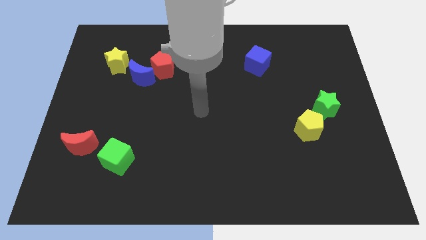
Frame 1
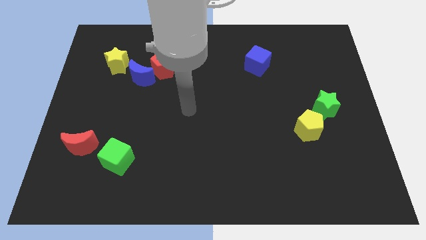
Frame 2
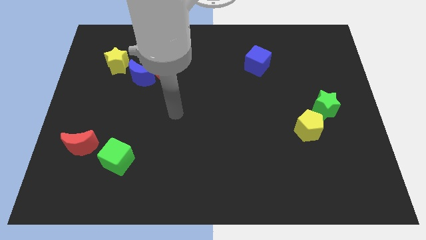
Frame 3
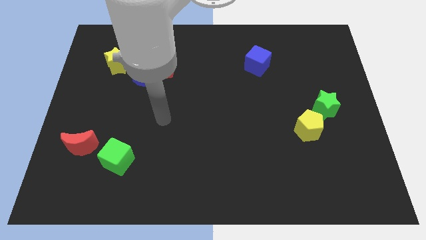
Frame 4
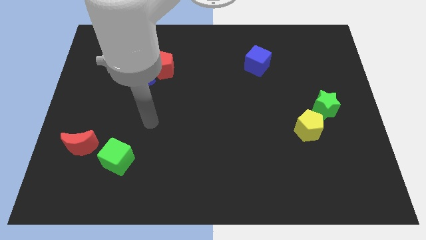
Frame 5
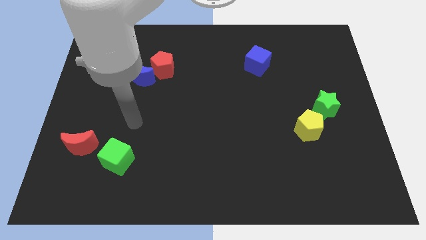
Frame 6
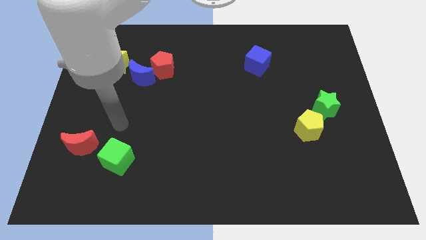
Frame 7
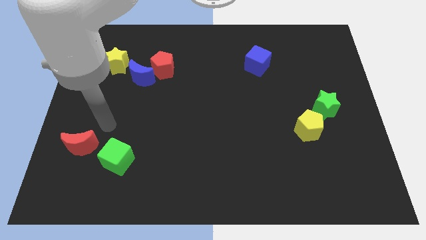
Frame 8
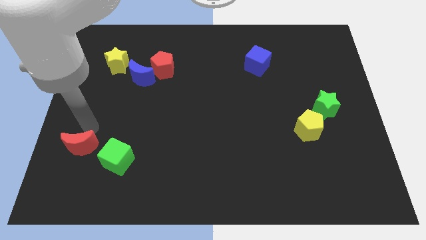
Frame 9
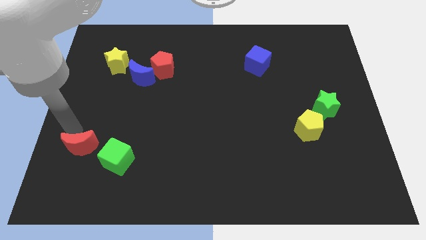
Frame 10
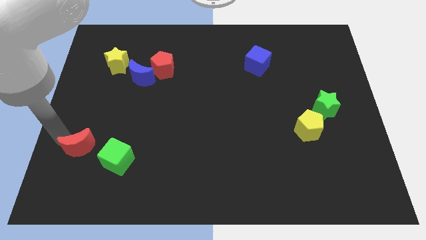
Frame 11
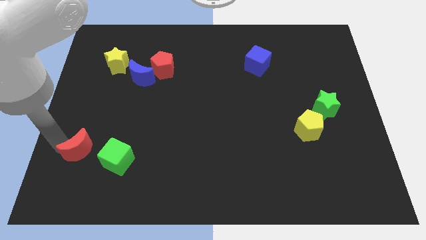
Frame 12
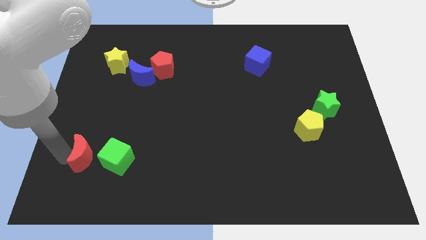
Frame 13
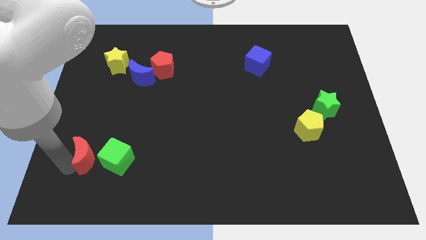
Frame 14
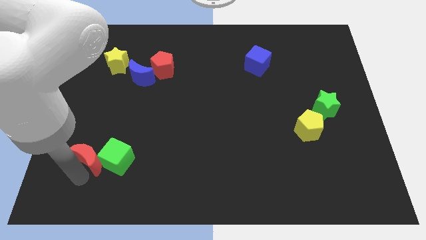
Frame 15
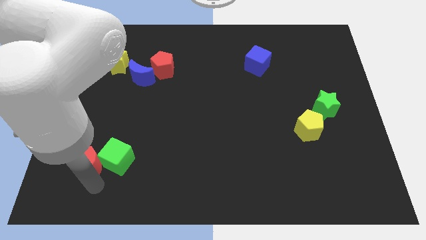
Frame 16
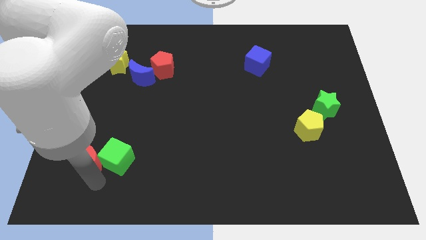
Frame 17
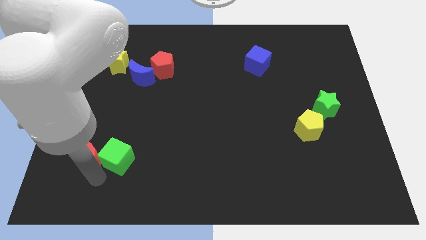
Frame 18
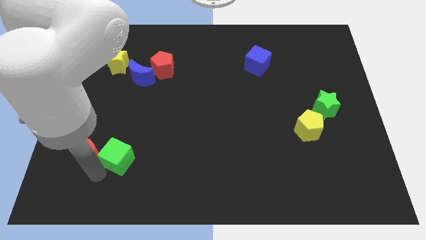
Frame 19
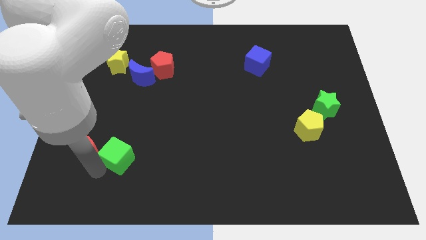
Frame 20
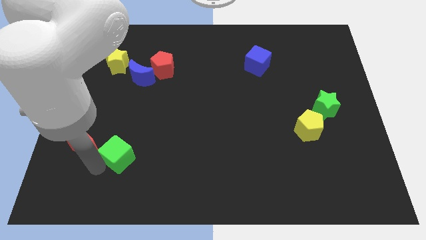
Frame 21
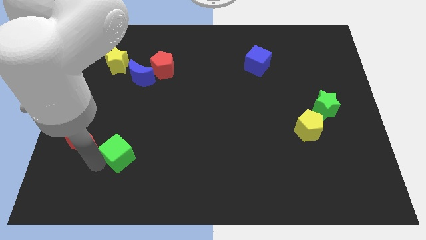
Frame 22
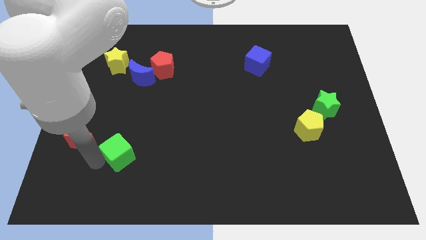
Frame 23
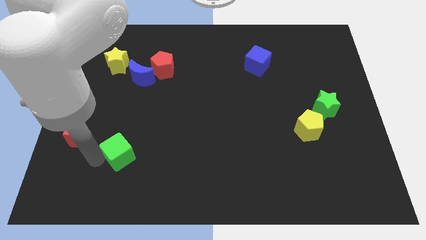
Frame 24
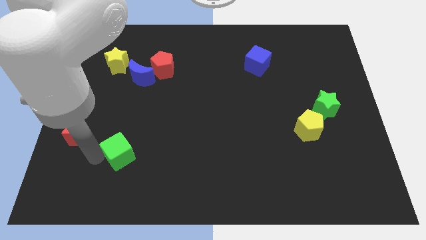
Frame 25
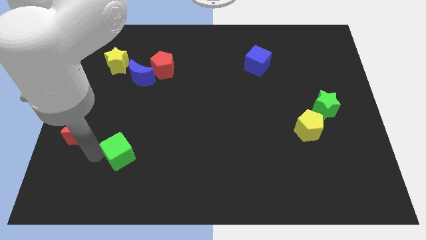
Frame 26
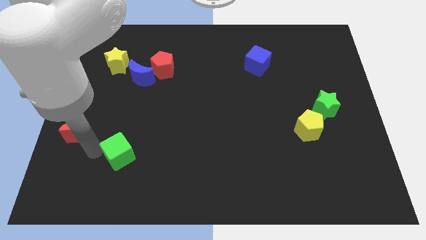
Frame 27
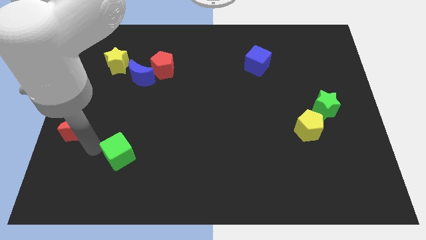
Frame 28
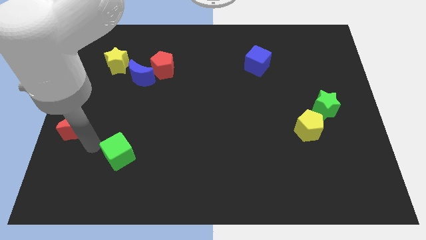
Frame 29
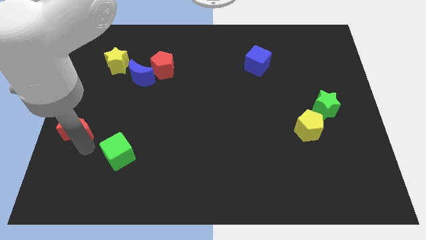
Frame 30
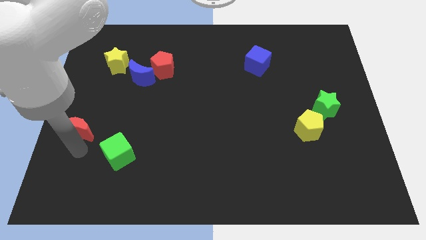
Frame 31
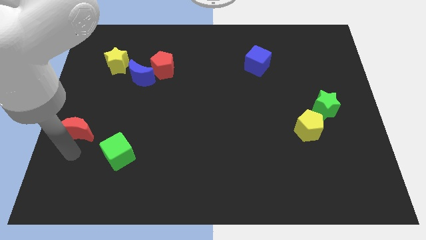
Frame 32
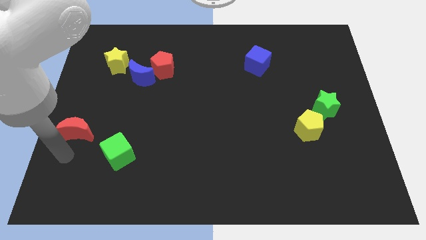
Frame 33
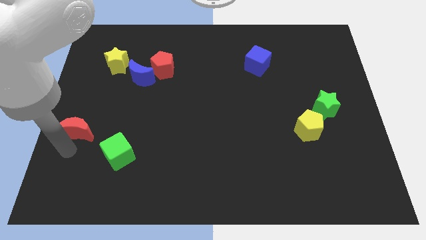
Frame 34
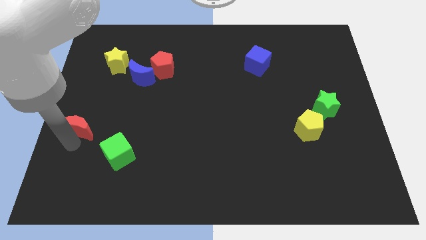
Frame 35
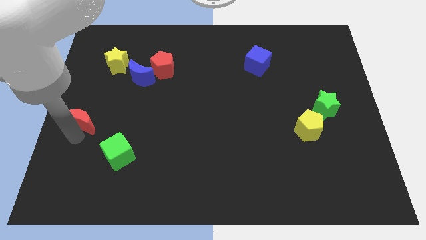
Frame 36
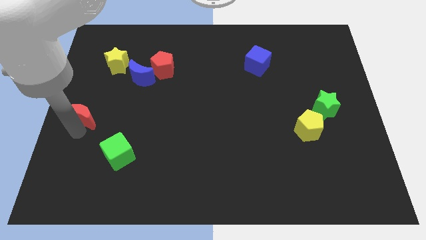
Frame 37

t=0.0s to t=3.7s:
slightly slide the red moon up

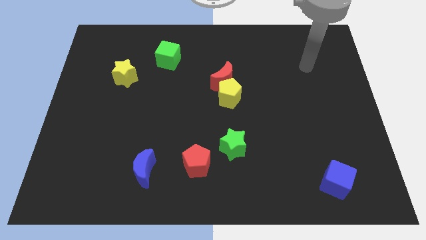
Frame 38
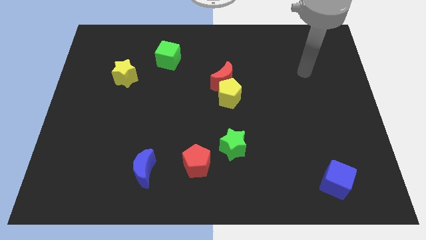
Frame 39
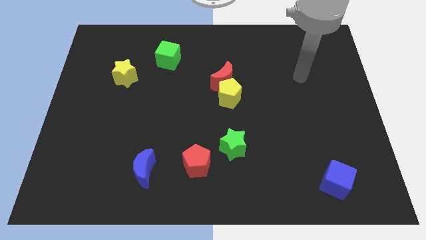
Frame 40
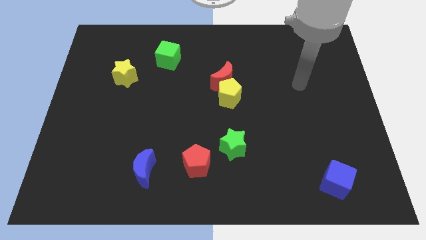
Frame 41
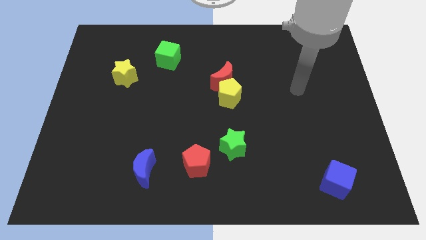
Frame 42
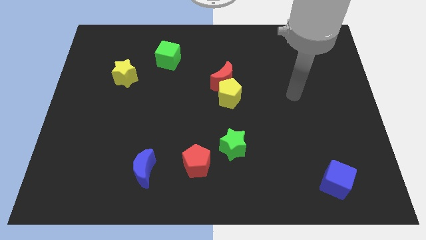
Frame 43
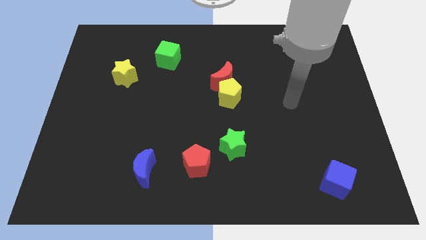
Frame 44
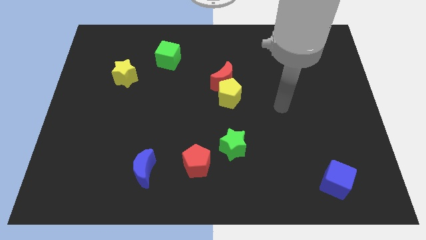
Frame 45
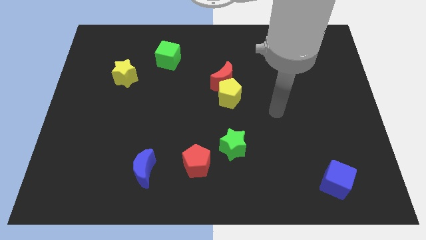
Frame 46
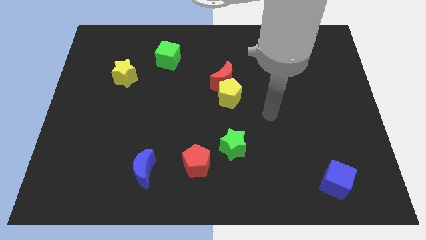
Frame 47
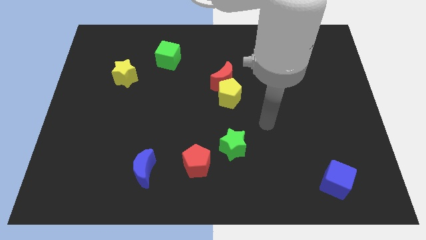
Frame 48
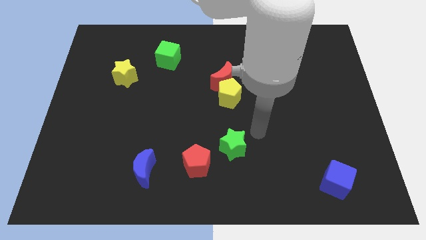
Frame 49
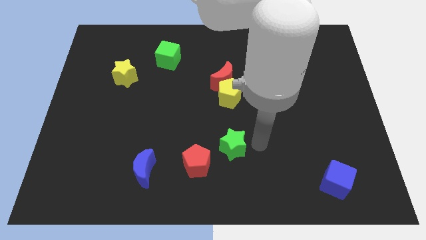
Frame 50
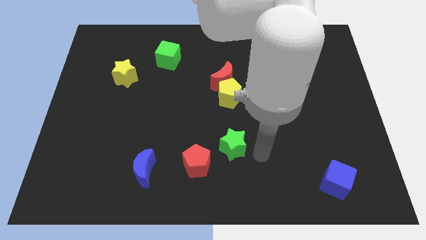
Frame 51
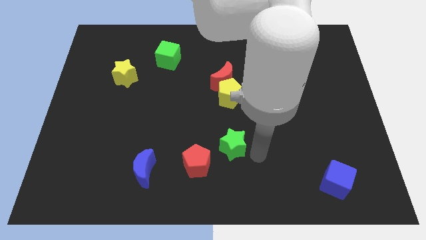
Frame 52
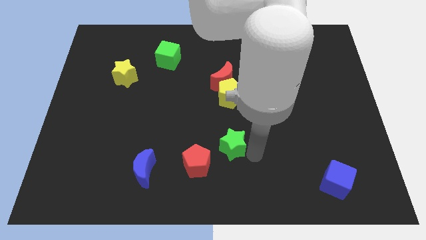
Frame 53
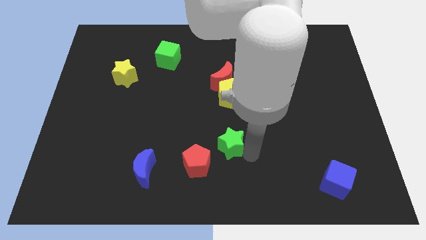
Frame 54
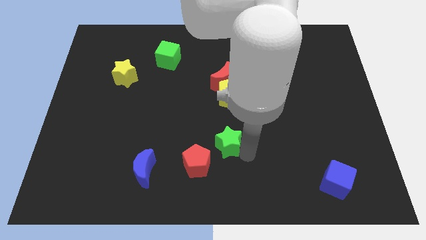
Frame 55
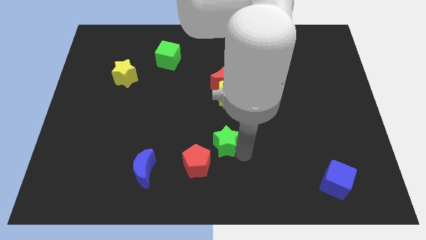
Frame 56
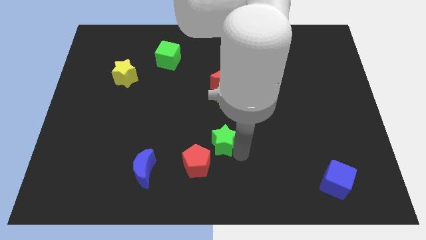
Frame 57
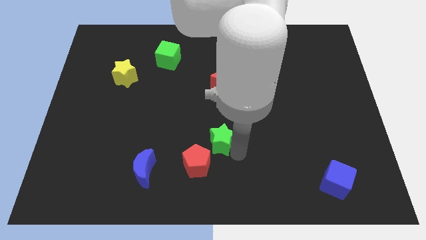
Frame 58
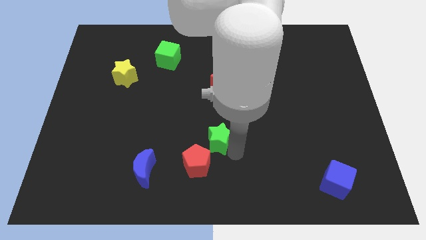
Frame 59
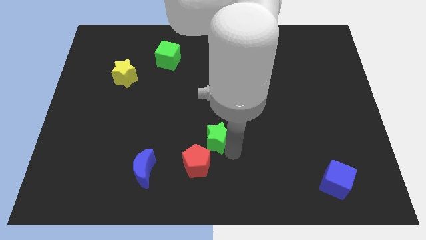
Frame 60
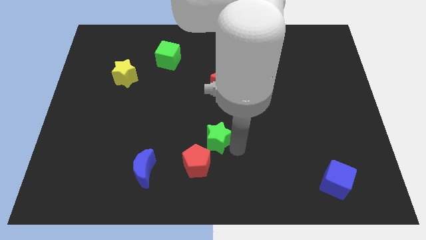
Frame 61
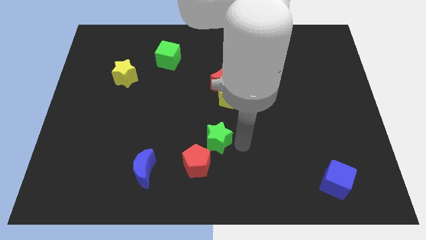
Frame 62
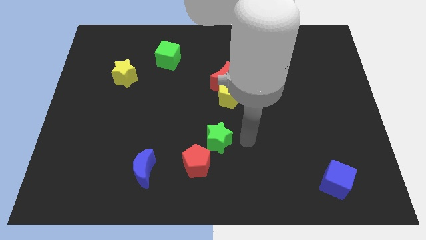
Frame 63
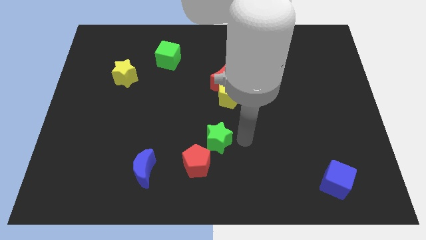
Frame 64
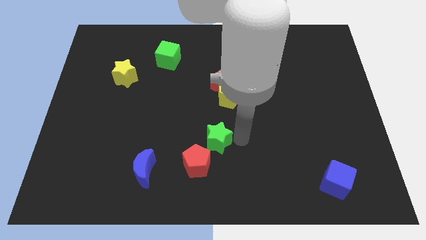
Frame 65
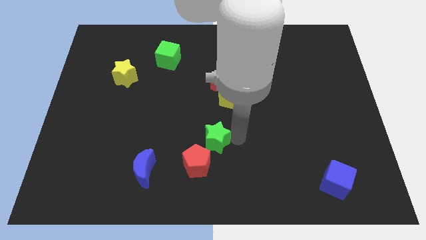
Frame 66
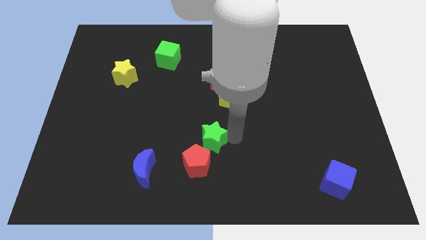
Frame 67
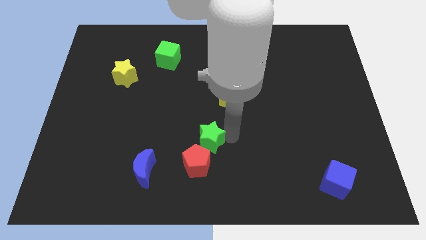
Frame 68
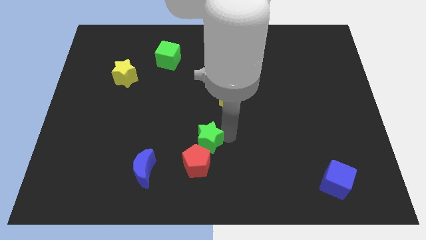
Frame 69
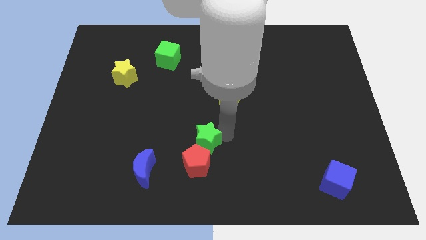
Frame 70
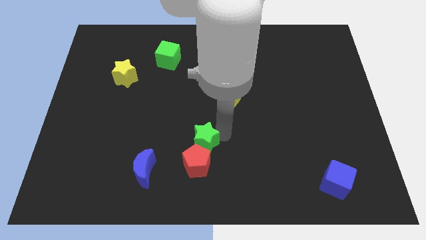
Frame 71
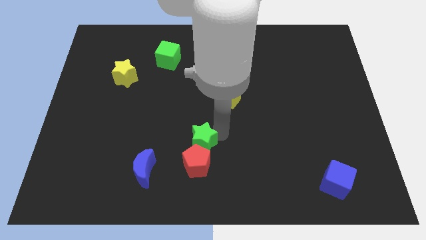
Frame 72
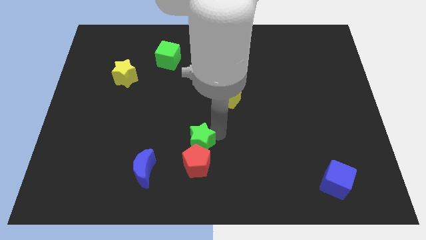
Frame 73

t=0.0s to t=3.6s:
slightly move the green star left

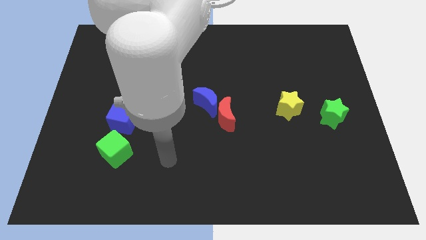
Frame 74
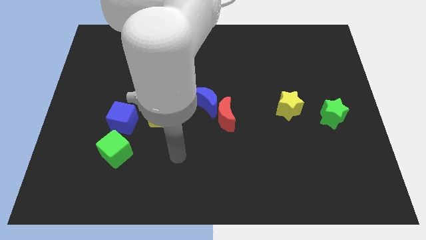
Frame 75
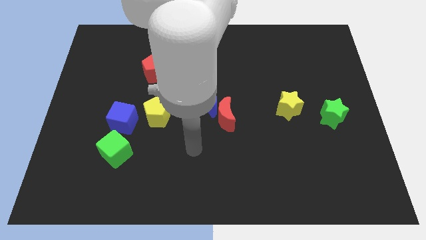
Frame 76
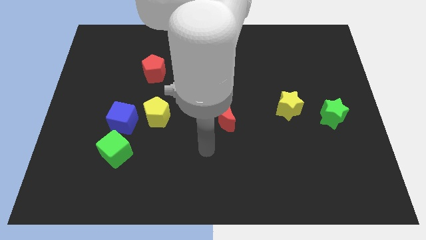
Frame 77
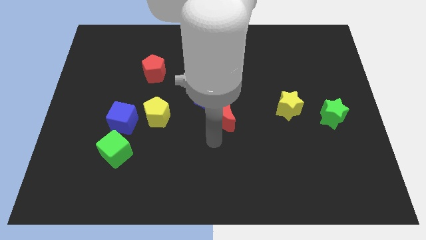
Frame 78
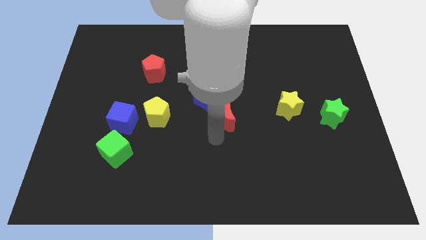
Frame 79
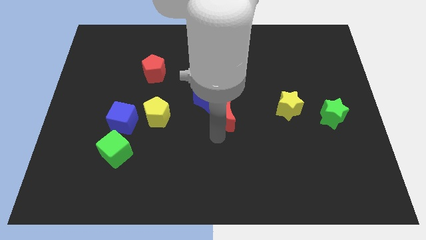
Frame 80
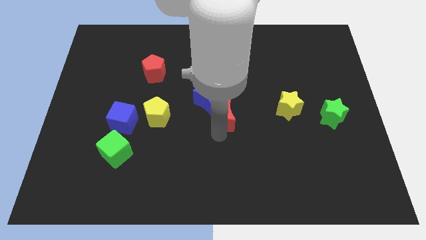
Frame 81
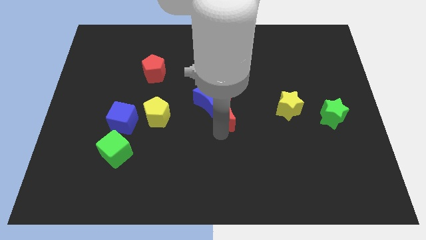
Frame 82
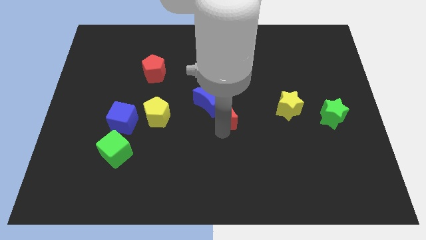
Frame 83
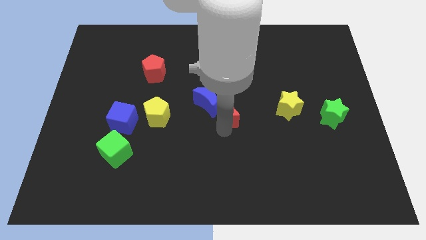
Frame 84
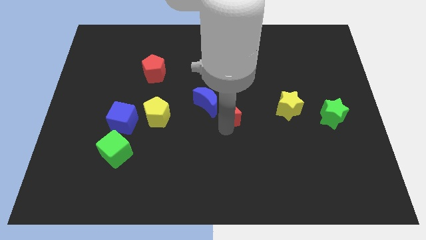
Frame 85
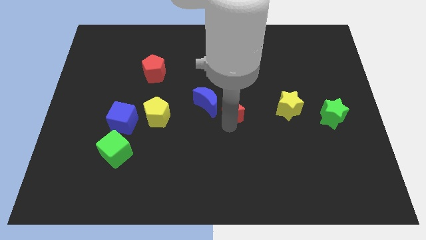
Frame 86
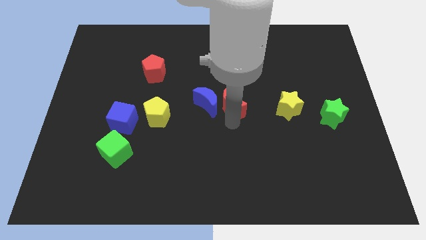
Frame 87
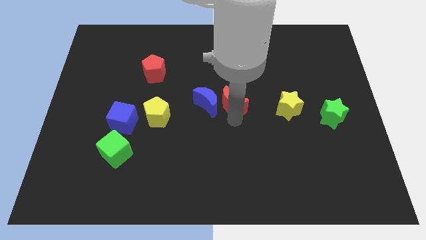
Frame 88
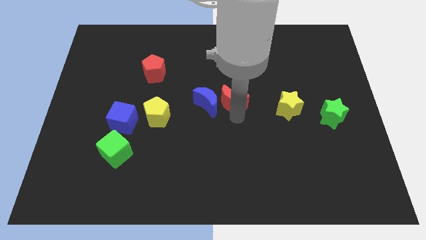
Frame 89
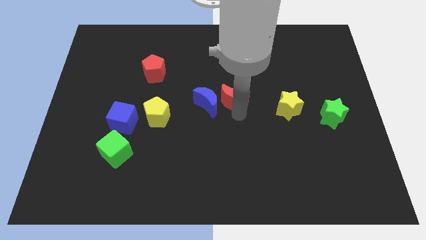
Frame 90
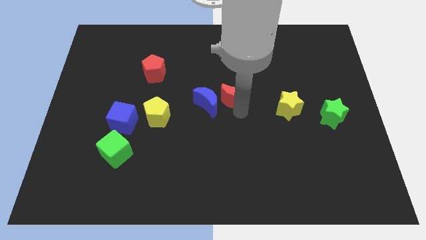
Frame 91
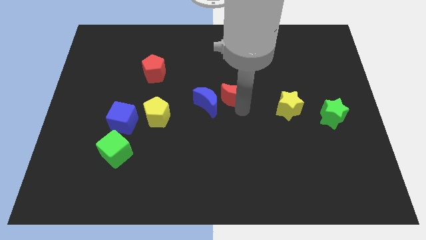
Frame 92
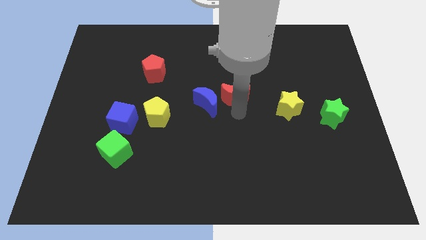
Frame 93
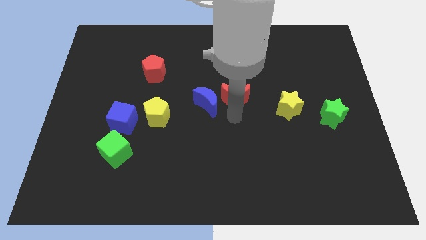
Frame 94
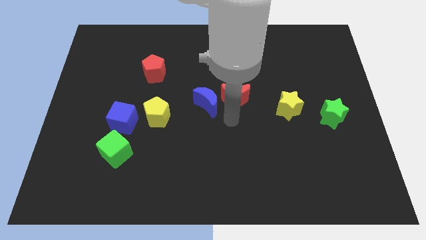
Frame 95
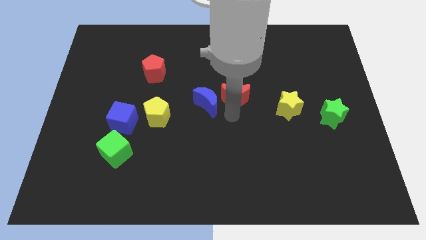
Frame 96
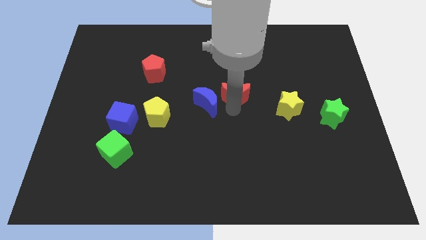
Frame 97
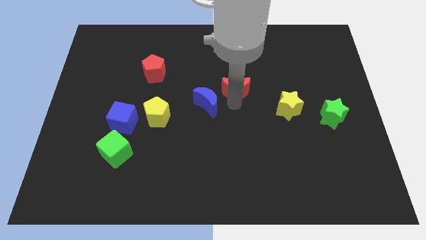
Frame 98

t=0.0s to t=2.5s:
push the red moon slightly up
